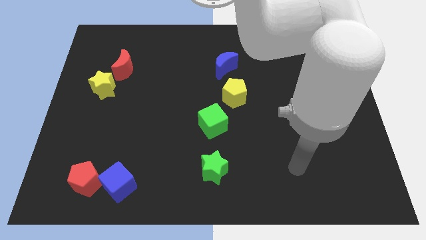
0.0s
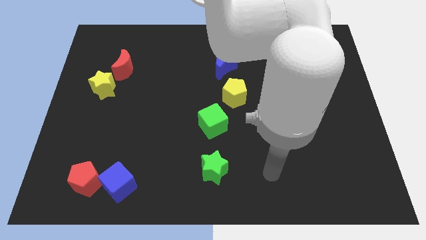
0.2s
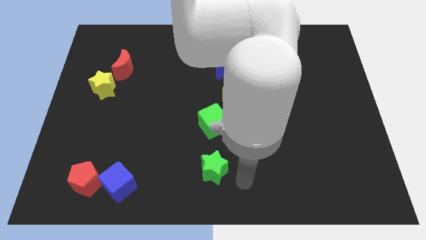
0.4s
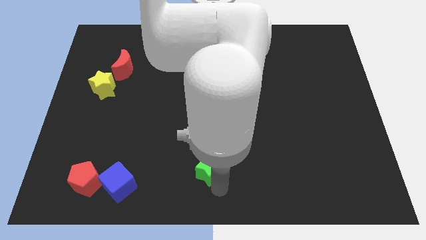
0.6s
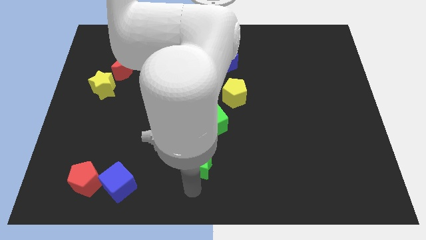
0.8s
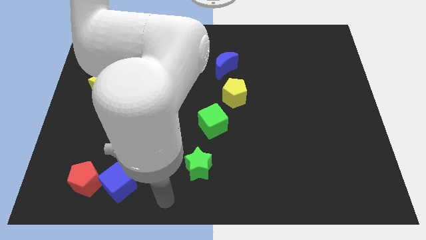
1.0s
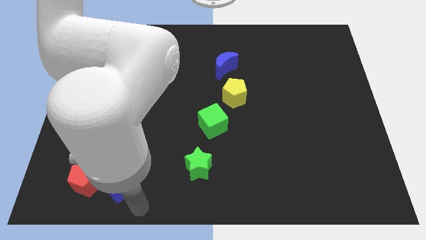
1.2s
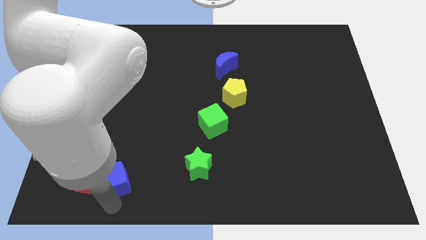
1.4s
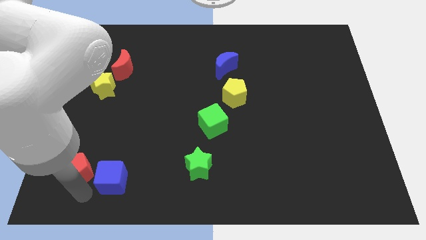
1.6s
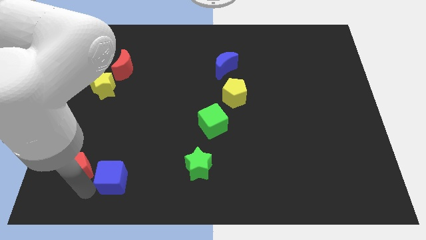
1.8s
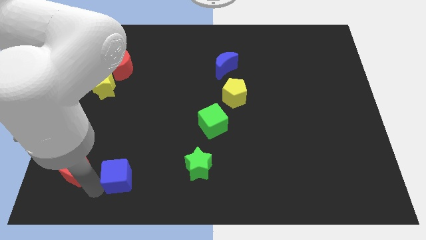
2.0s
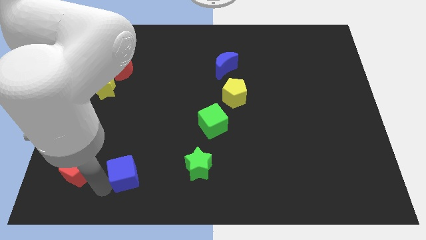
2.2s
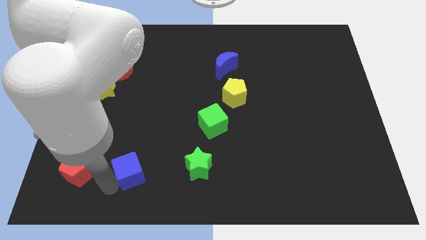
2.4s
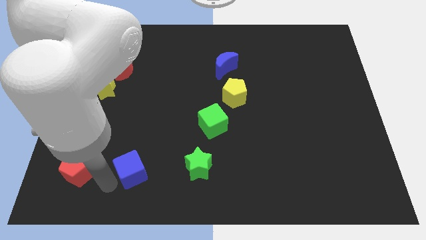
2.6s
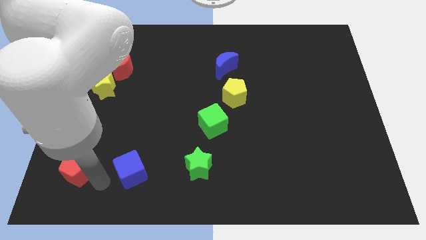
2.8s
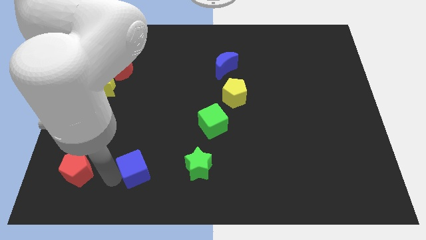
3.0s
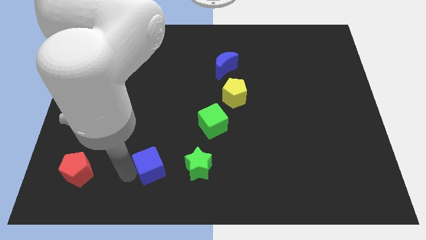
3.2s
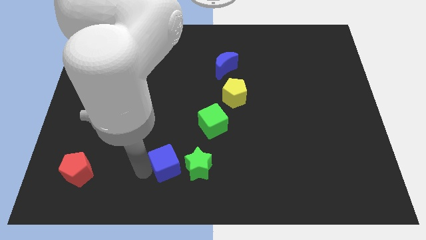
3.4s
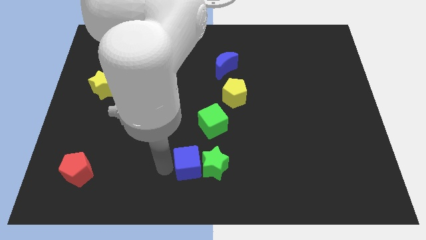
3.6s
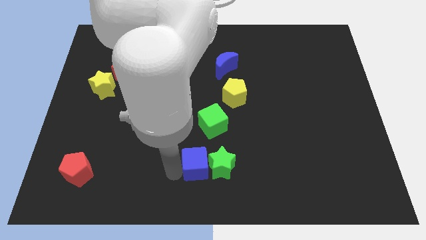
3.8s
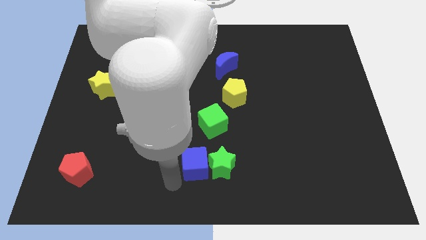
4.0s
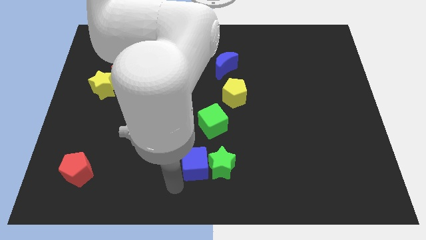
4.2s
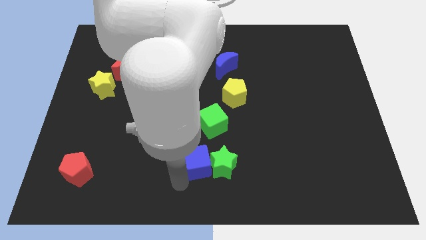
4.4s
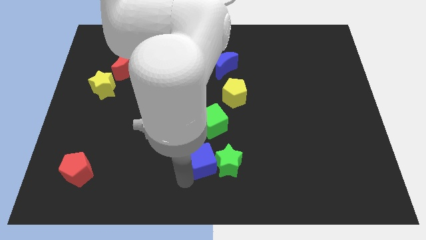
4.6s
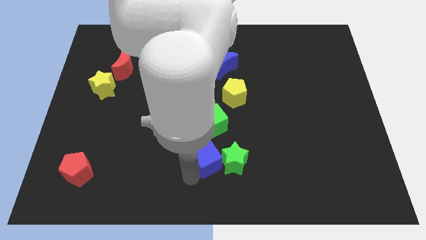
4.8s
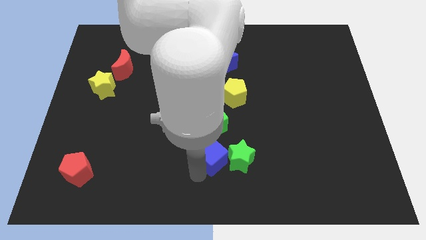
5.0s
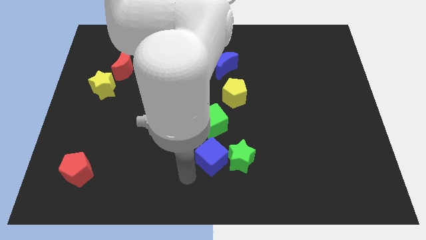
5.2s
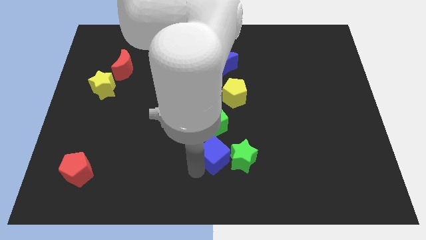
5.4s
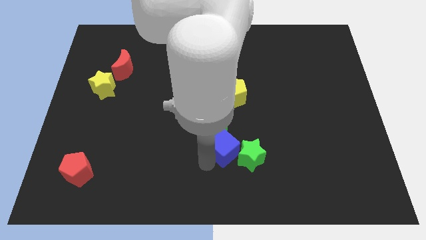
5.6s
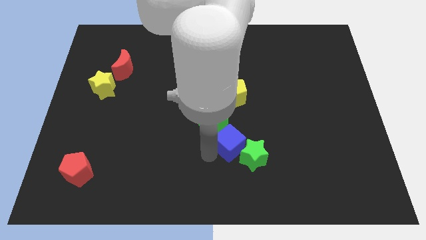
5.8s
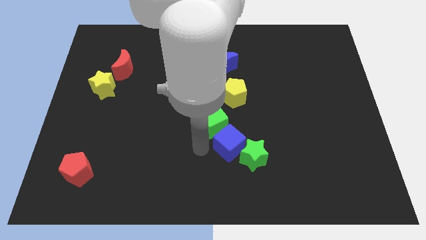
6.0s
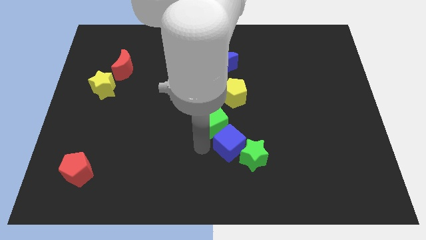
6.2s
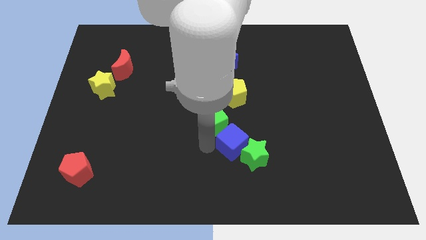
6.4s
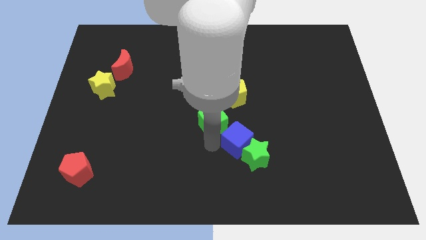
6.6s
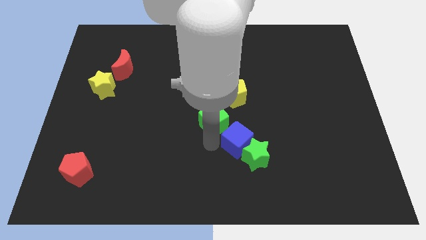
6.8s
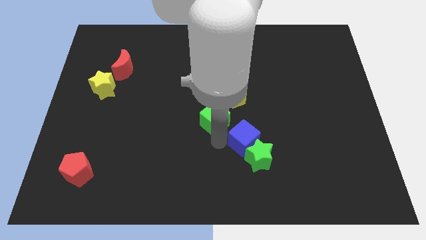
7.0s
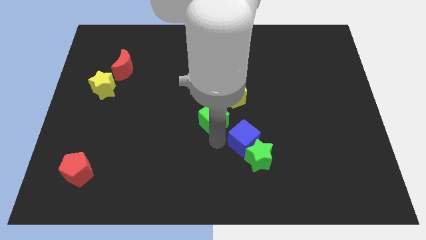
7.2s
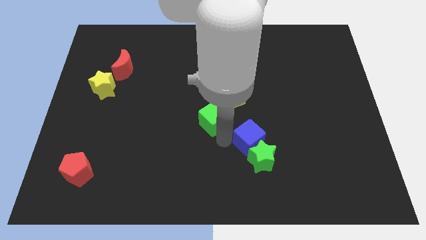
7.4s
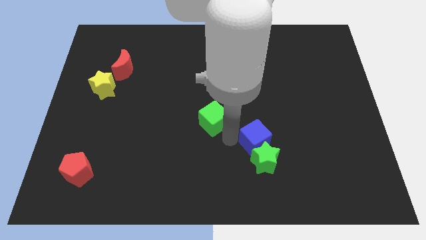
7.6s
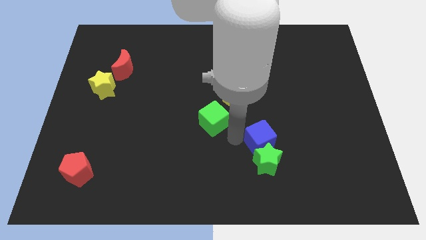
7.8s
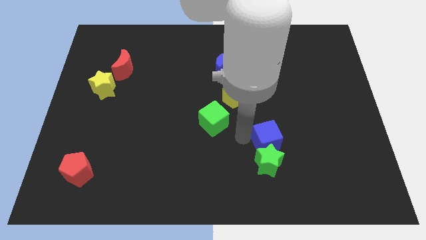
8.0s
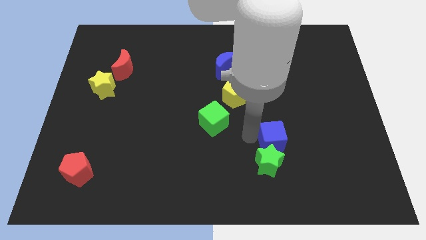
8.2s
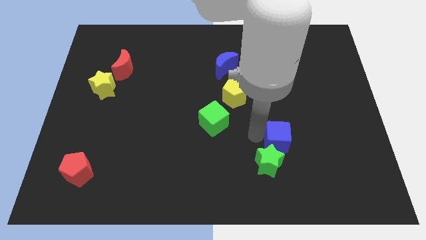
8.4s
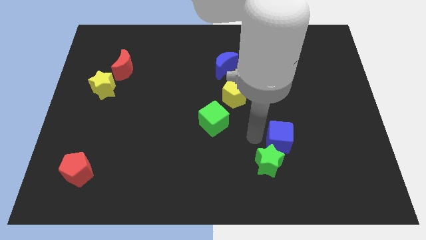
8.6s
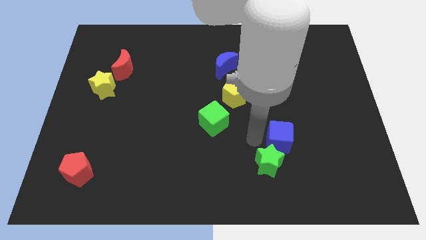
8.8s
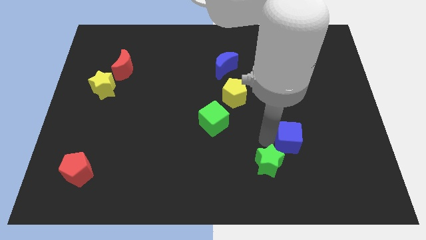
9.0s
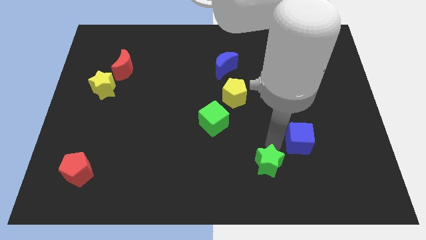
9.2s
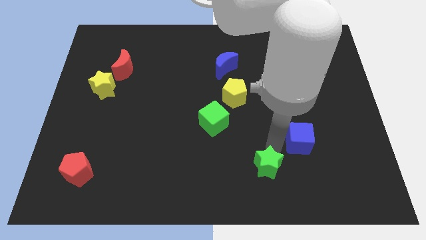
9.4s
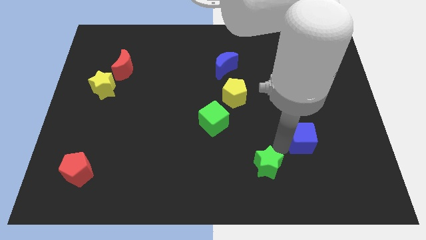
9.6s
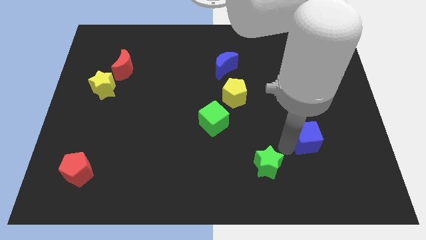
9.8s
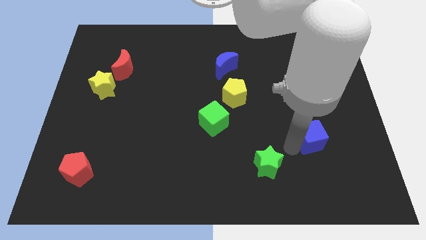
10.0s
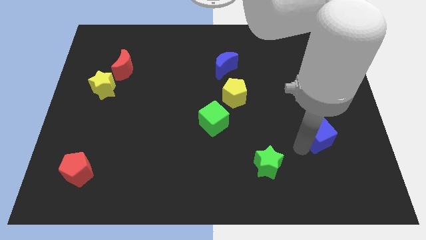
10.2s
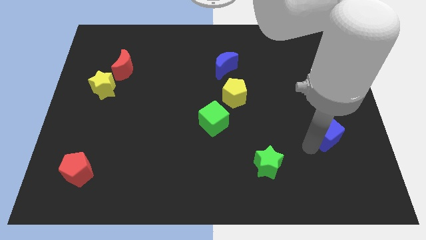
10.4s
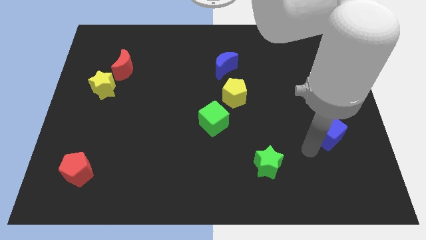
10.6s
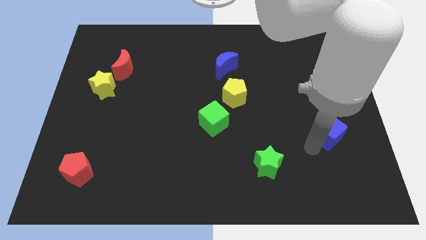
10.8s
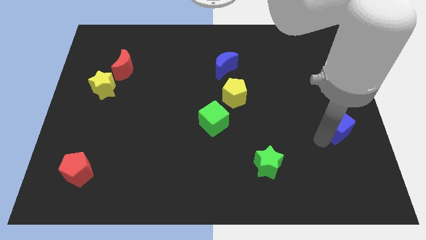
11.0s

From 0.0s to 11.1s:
push the blue cube to the right side

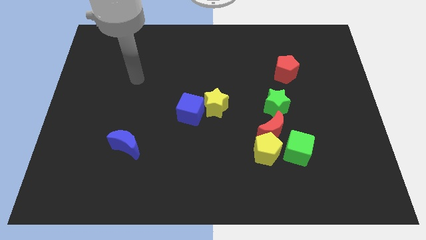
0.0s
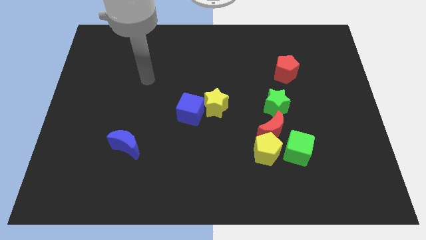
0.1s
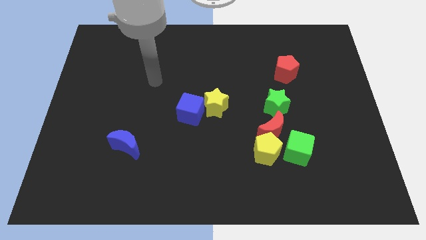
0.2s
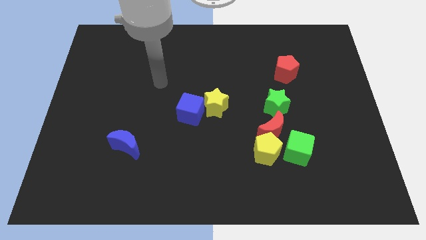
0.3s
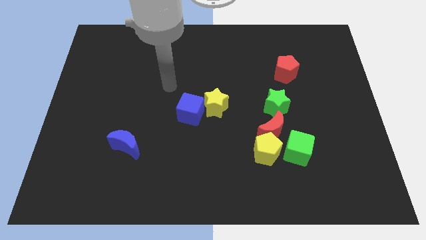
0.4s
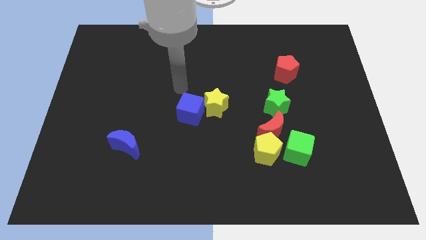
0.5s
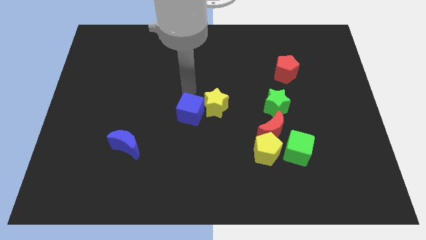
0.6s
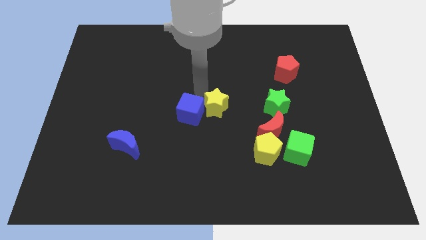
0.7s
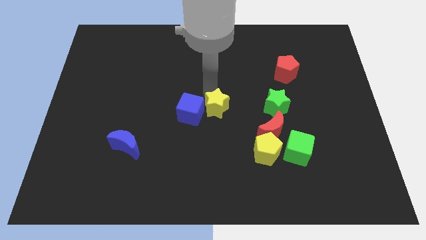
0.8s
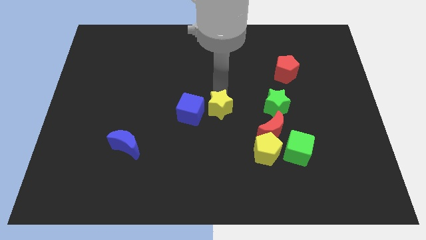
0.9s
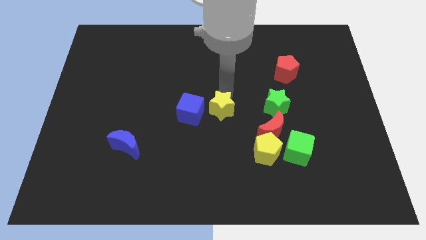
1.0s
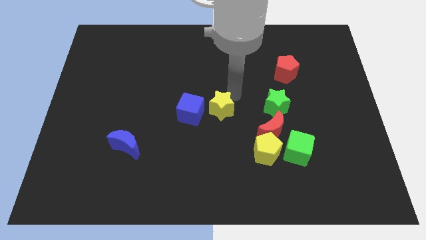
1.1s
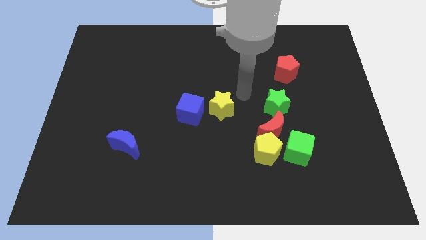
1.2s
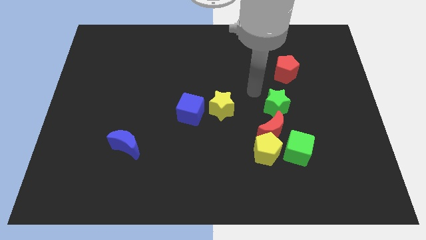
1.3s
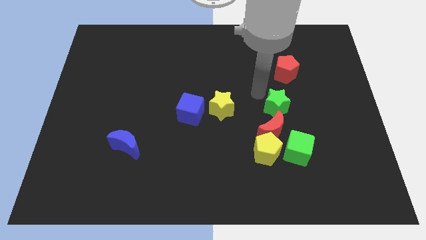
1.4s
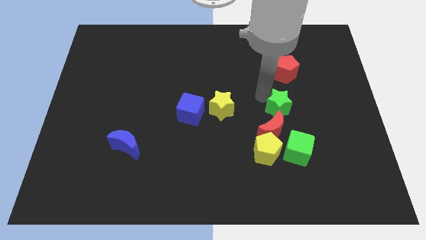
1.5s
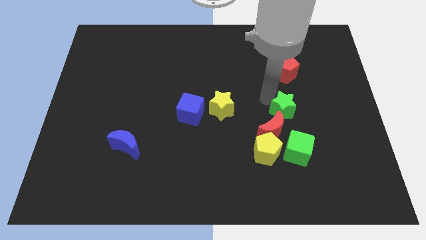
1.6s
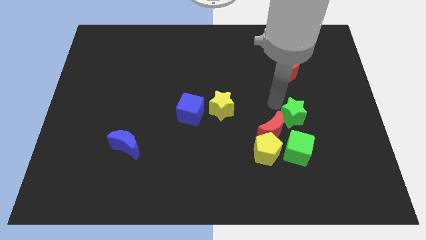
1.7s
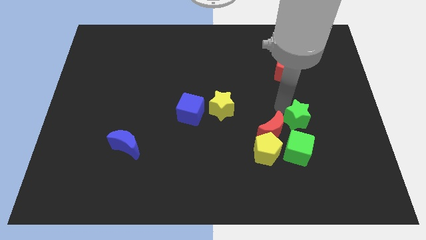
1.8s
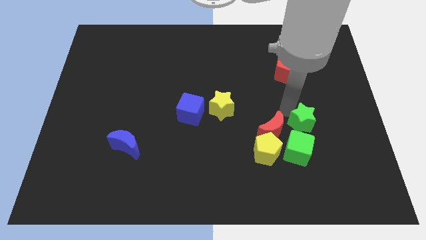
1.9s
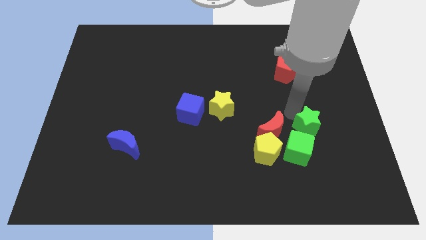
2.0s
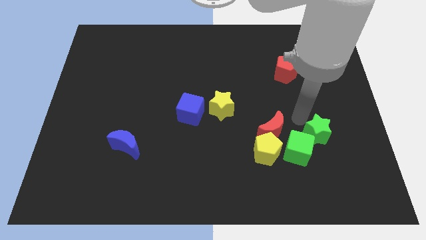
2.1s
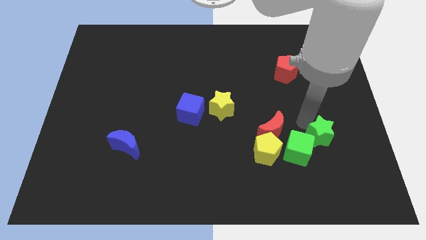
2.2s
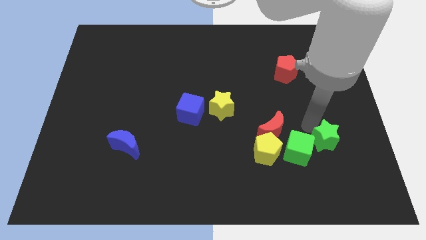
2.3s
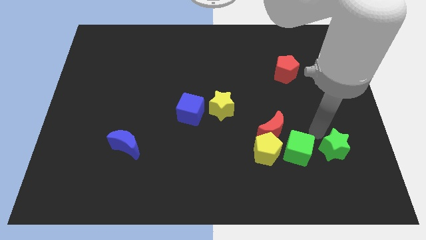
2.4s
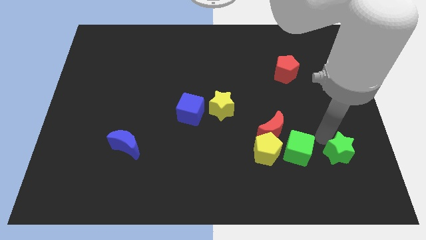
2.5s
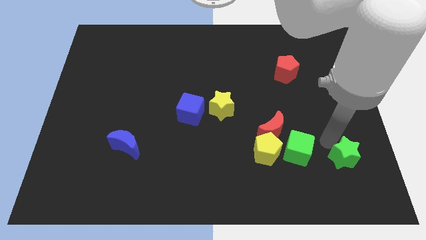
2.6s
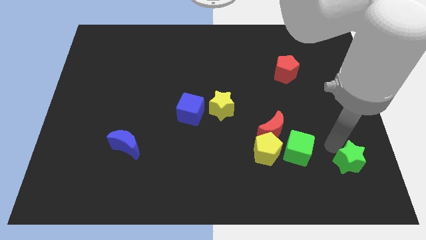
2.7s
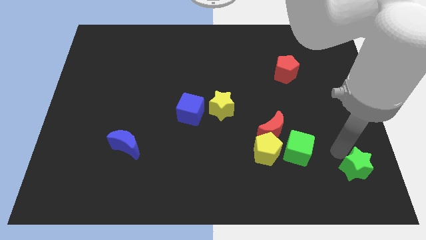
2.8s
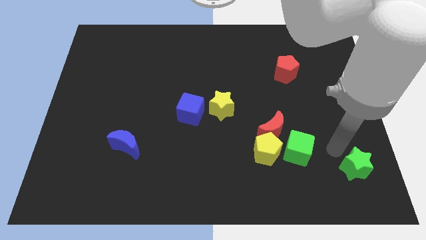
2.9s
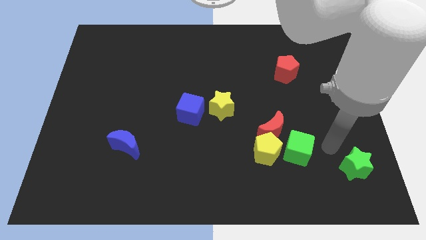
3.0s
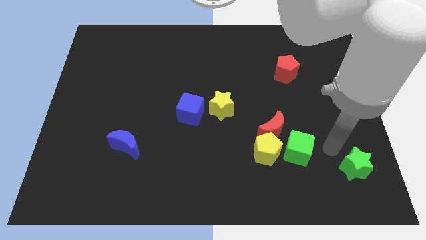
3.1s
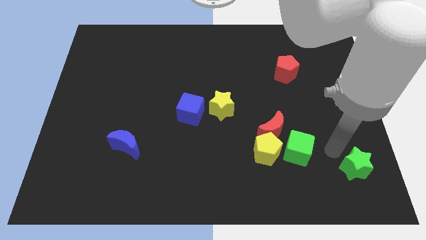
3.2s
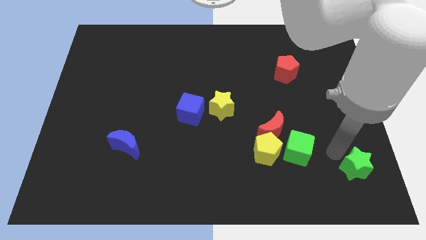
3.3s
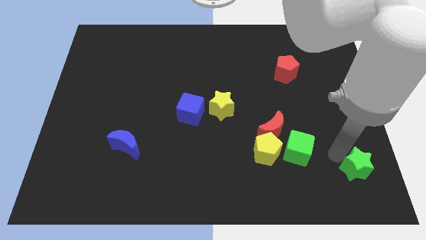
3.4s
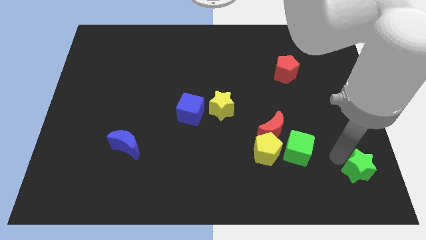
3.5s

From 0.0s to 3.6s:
put the green star to the bottom right corner
